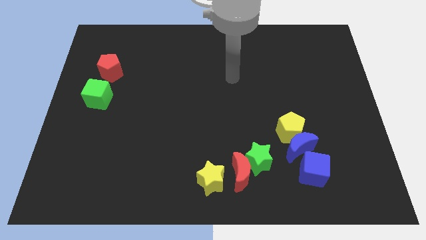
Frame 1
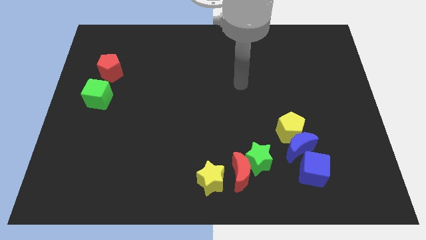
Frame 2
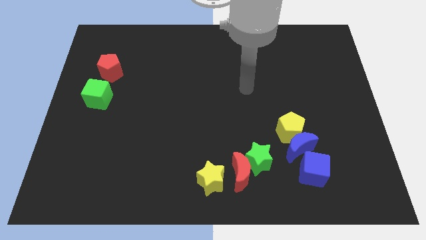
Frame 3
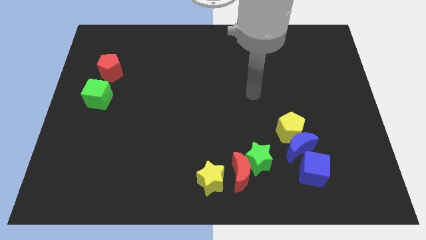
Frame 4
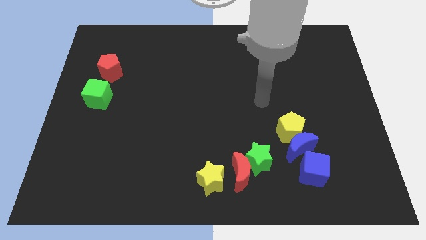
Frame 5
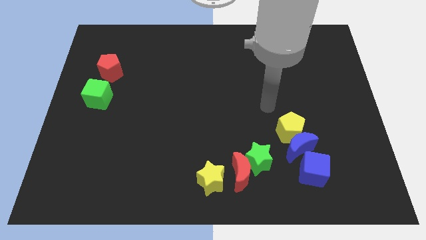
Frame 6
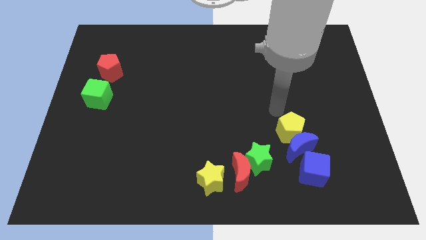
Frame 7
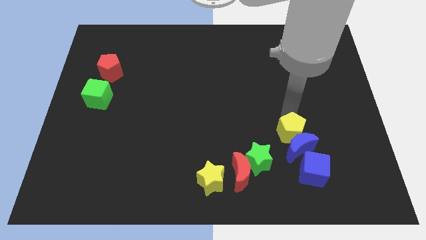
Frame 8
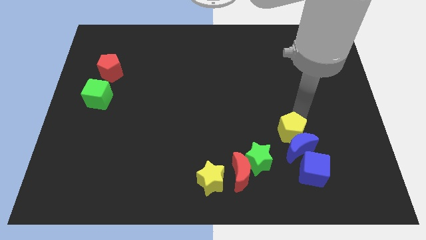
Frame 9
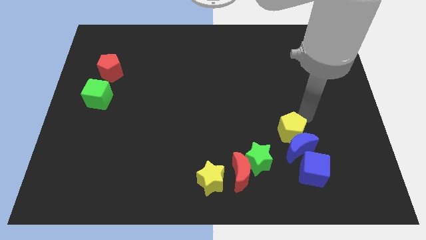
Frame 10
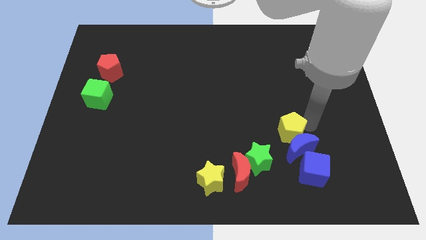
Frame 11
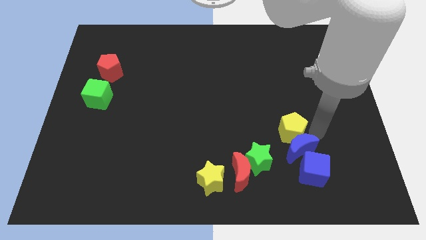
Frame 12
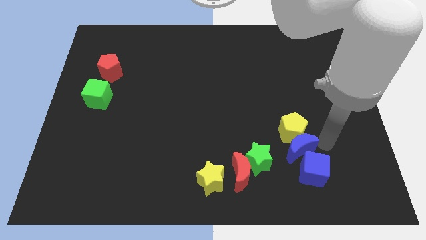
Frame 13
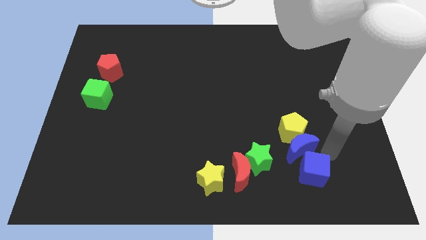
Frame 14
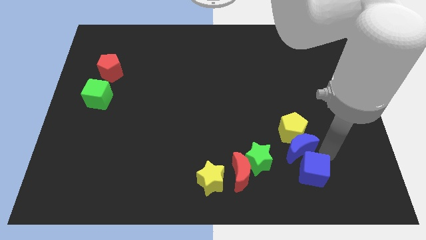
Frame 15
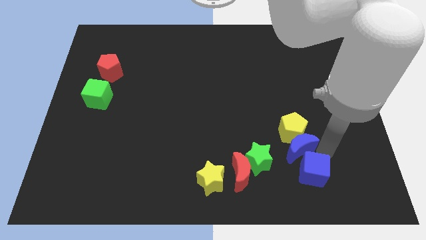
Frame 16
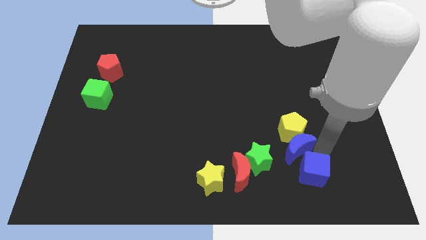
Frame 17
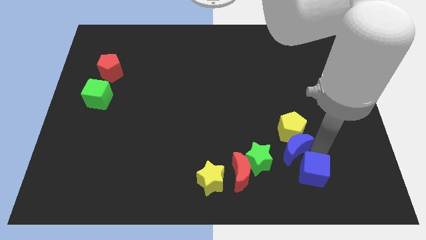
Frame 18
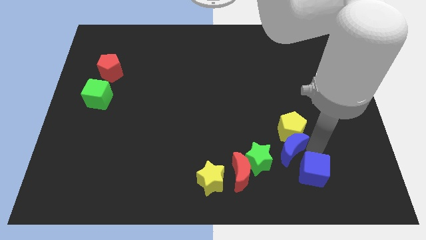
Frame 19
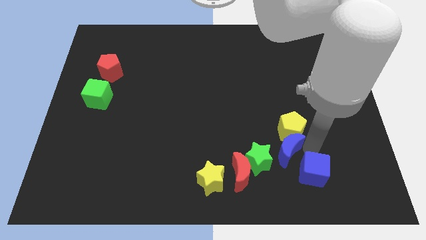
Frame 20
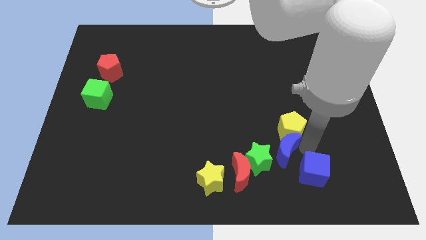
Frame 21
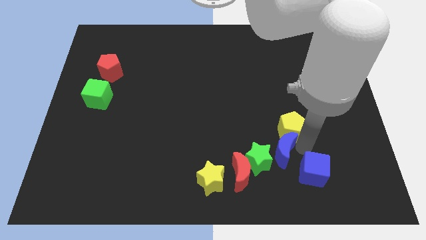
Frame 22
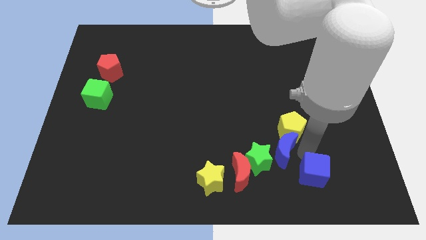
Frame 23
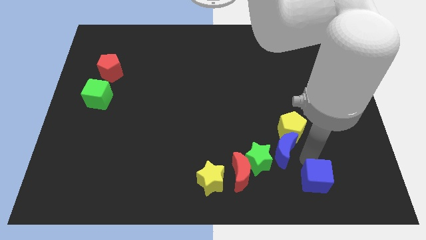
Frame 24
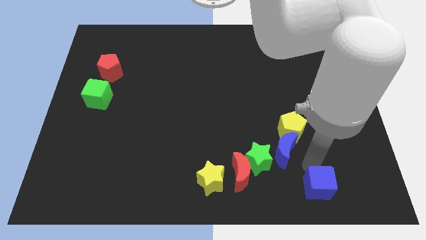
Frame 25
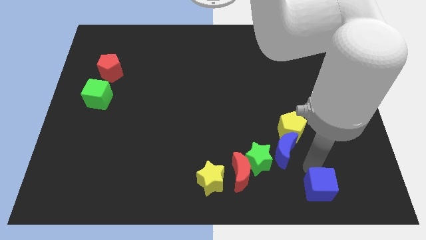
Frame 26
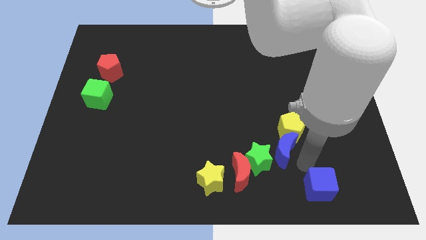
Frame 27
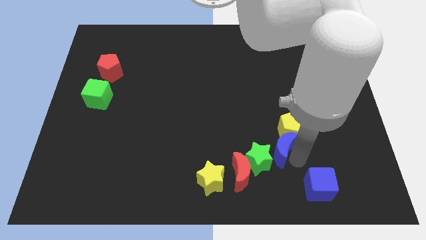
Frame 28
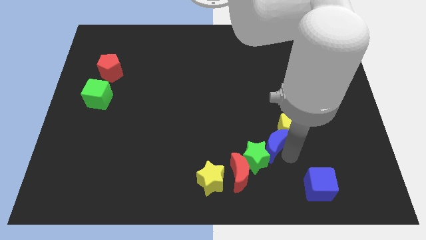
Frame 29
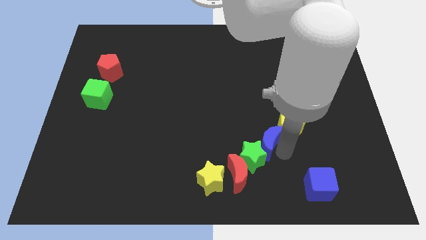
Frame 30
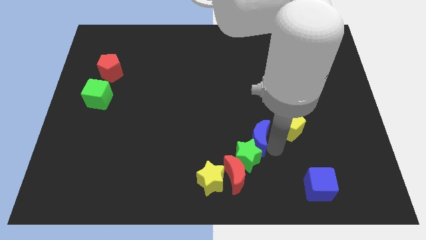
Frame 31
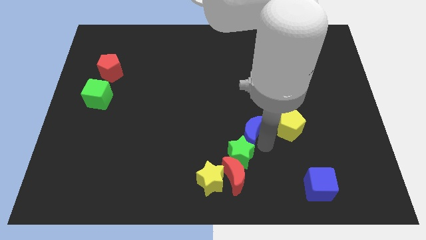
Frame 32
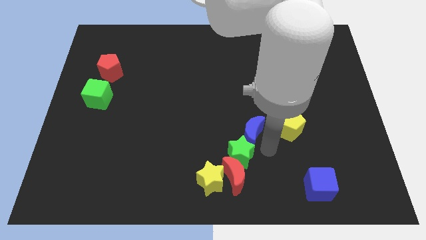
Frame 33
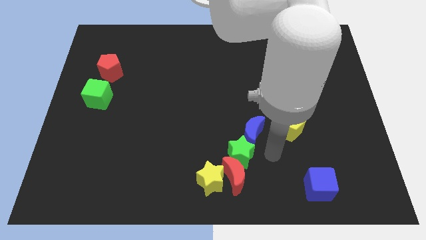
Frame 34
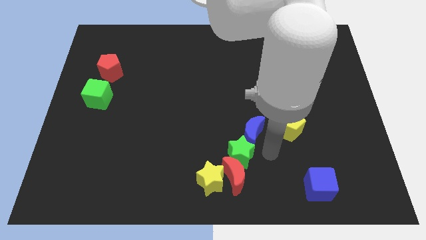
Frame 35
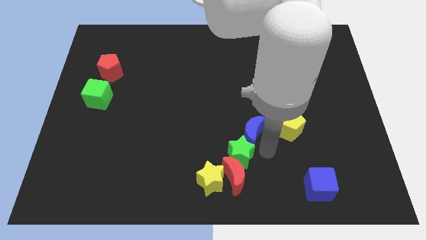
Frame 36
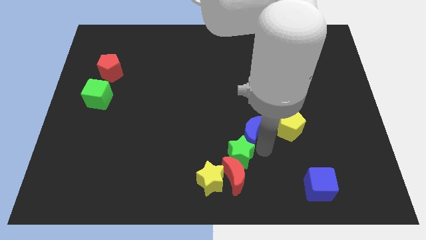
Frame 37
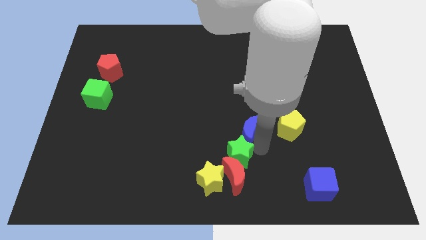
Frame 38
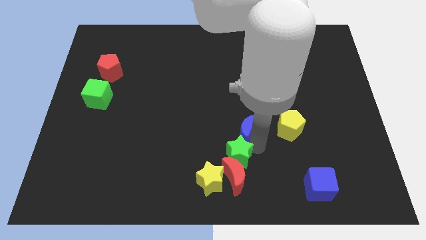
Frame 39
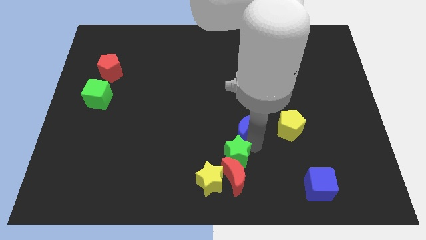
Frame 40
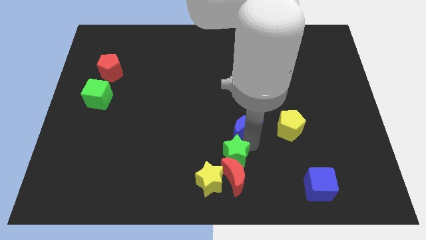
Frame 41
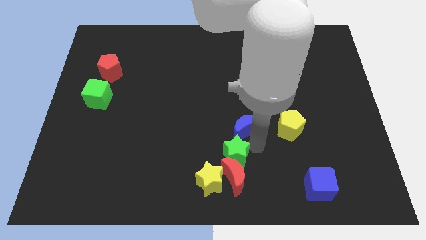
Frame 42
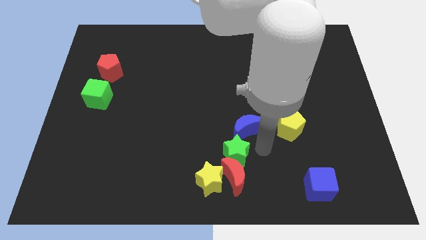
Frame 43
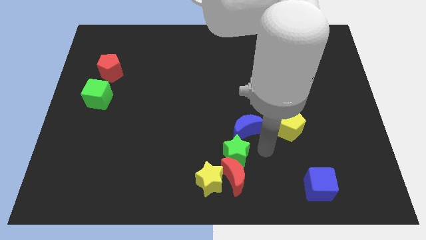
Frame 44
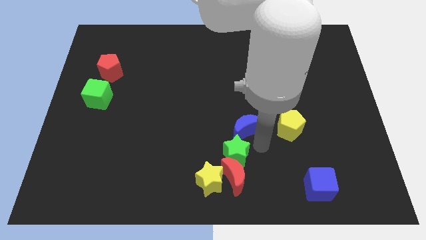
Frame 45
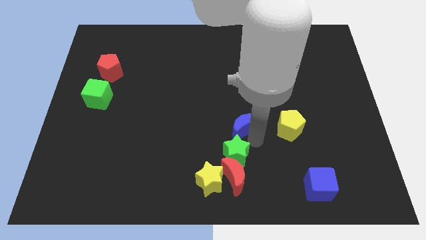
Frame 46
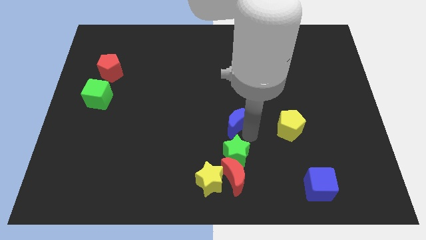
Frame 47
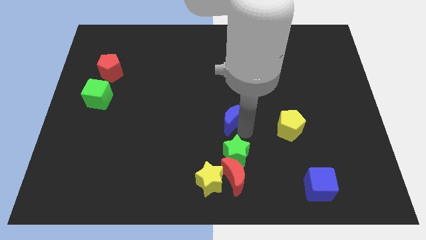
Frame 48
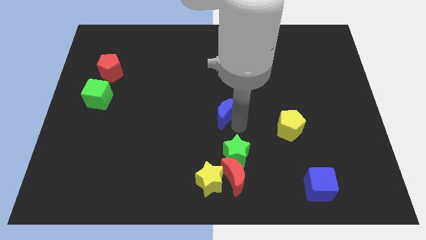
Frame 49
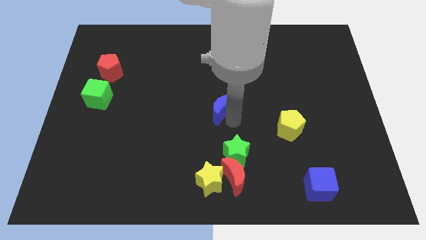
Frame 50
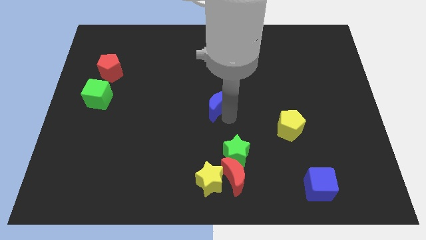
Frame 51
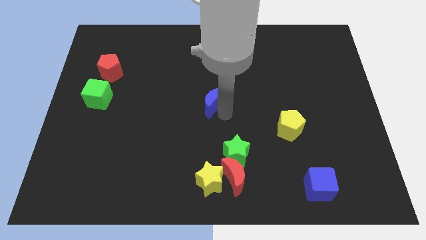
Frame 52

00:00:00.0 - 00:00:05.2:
move the blue moon diagonally upwards and left

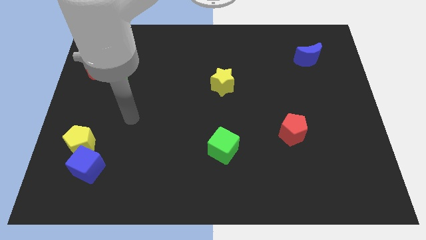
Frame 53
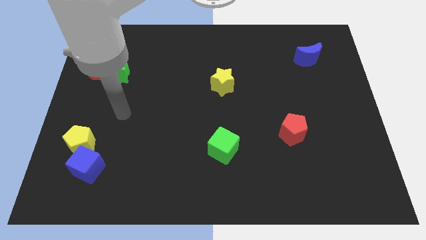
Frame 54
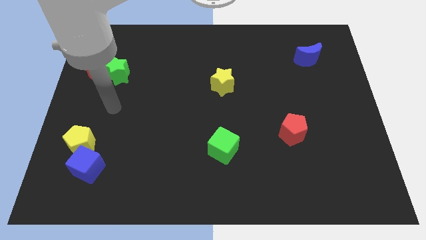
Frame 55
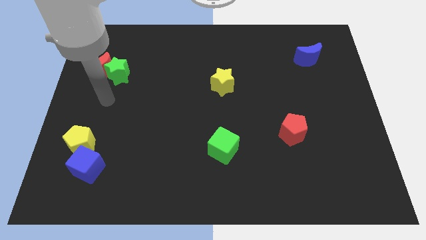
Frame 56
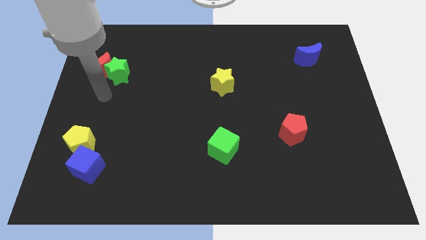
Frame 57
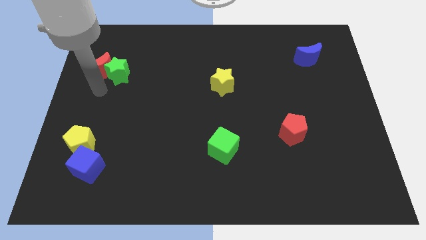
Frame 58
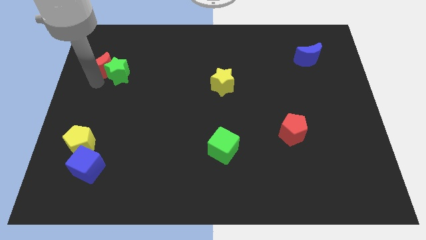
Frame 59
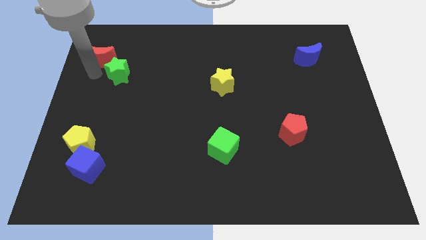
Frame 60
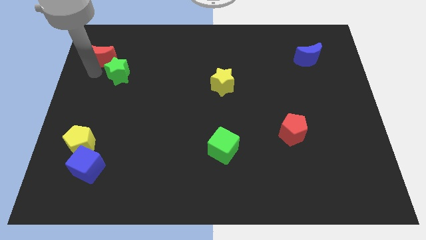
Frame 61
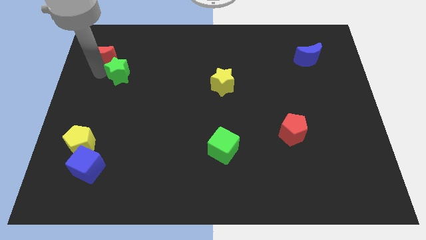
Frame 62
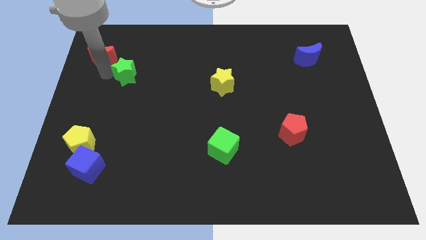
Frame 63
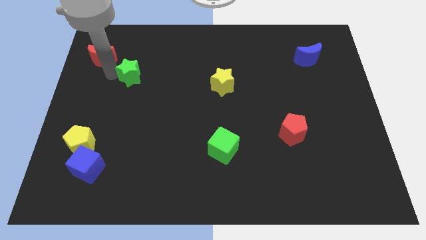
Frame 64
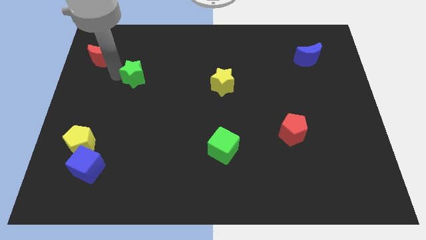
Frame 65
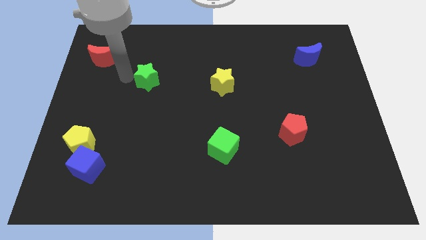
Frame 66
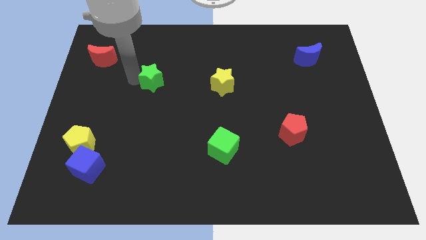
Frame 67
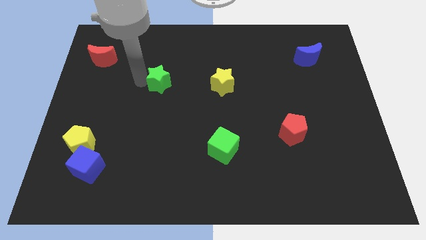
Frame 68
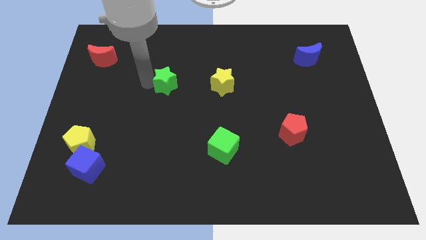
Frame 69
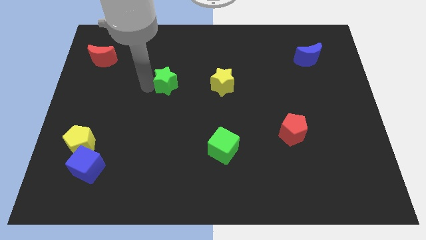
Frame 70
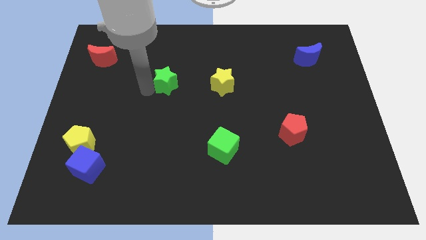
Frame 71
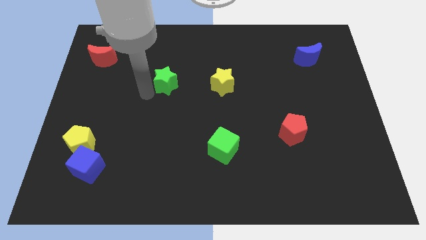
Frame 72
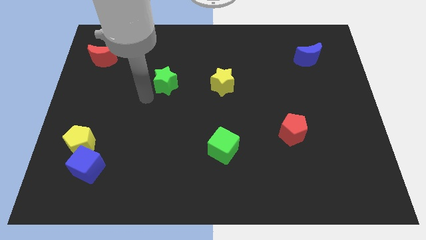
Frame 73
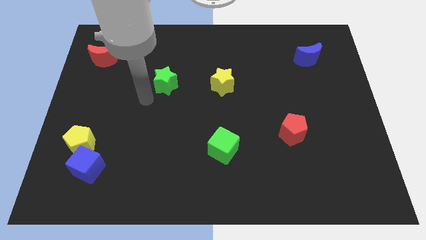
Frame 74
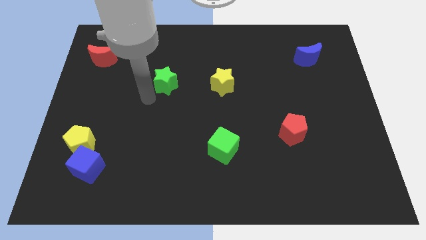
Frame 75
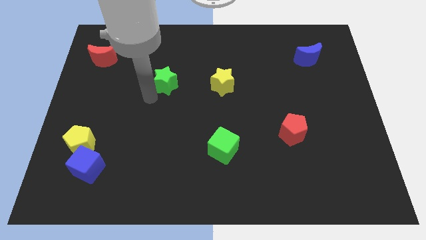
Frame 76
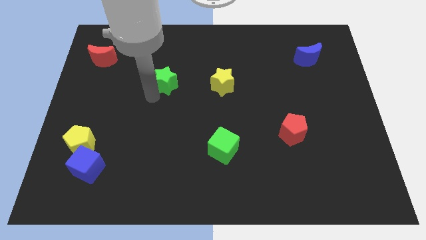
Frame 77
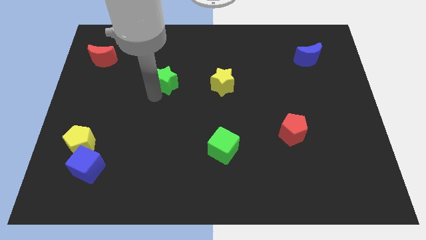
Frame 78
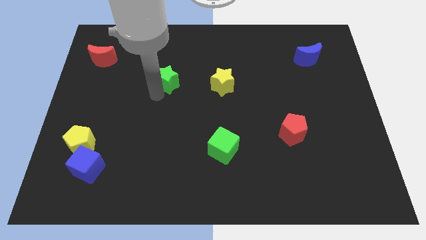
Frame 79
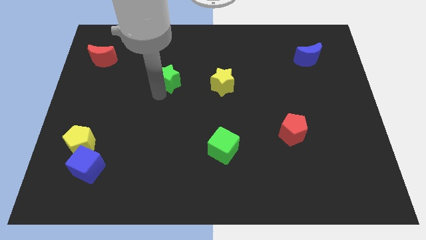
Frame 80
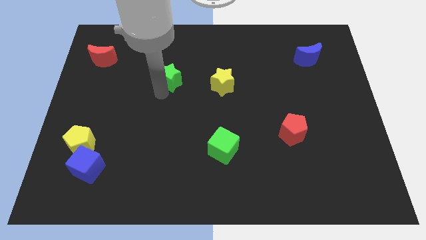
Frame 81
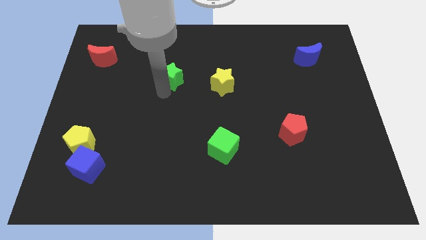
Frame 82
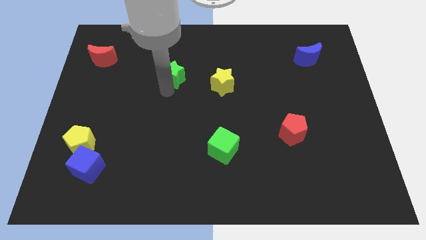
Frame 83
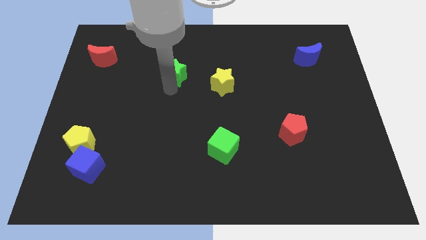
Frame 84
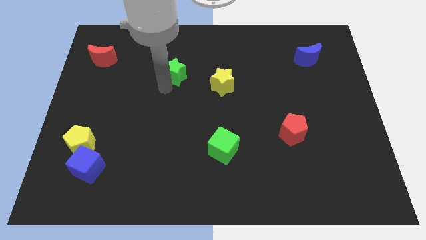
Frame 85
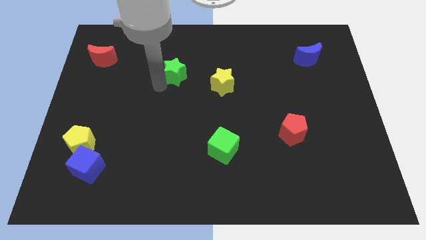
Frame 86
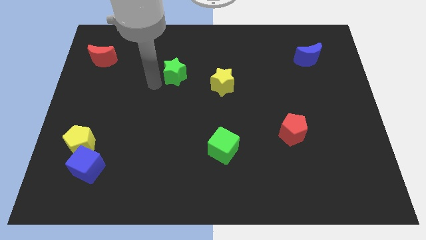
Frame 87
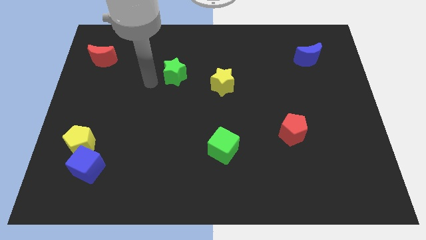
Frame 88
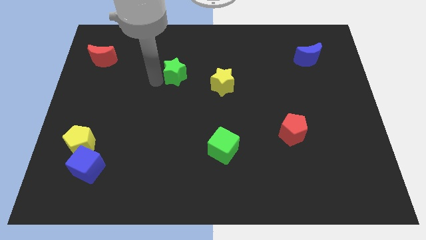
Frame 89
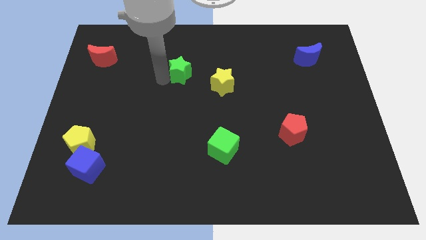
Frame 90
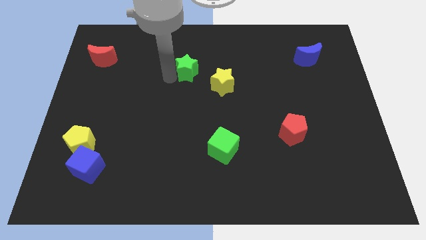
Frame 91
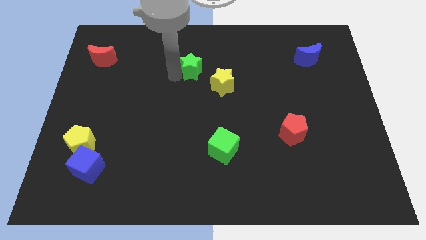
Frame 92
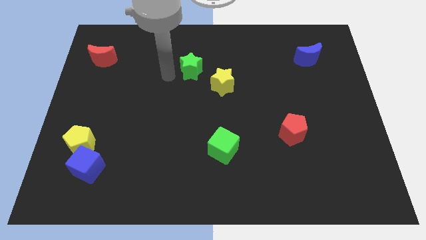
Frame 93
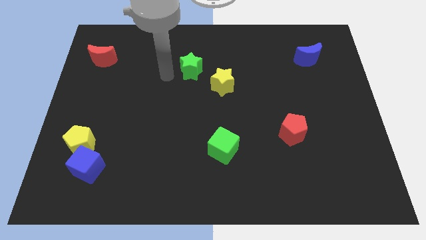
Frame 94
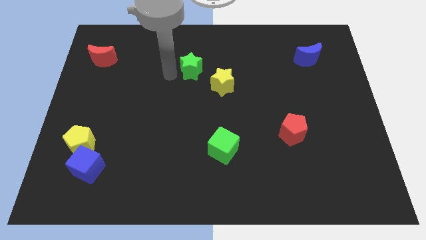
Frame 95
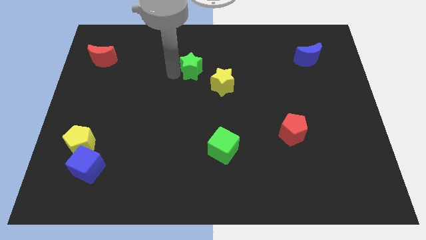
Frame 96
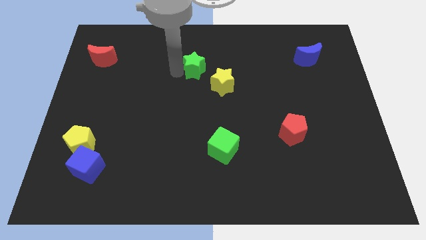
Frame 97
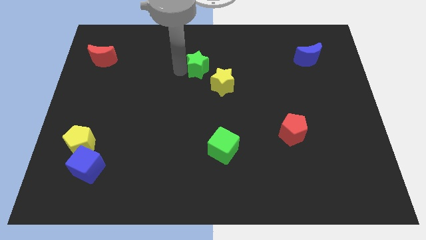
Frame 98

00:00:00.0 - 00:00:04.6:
move the green star right
